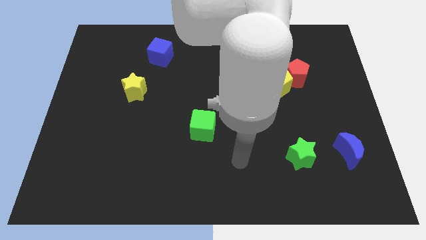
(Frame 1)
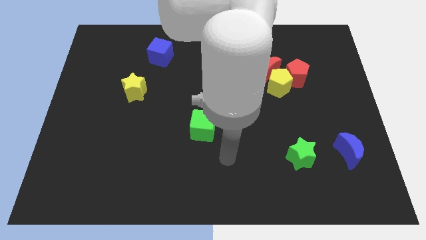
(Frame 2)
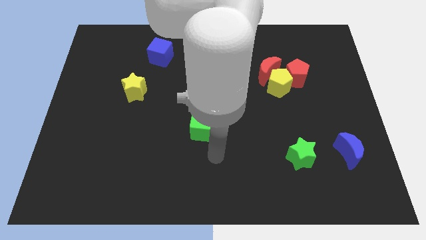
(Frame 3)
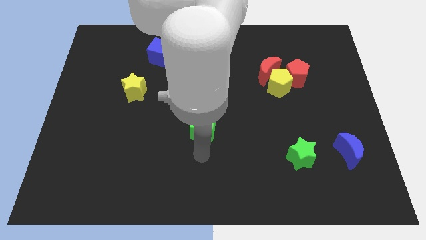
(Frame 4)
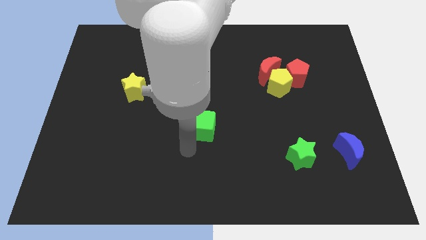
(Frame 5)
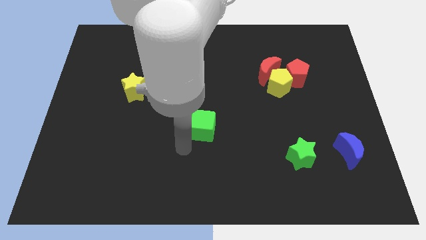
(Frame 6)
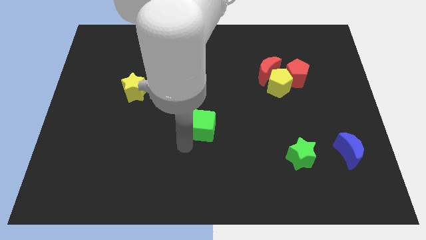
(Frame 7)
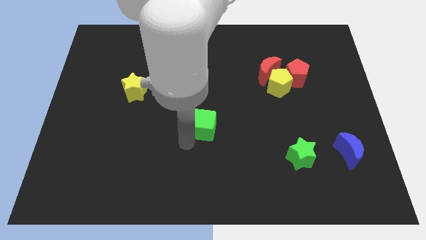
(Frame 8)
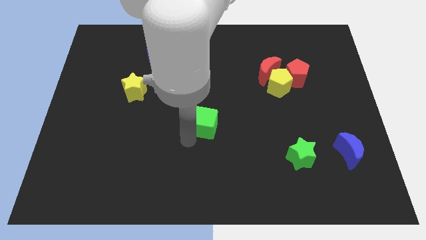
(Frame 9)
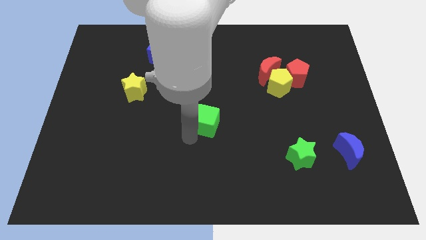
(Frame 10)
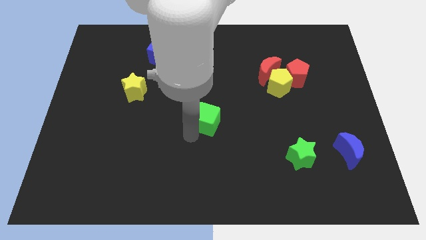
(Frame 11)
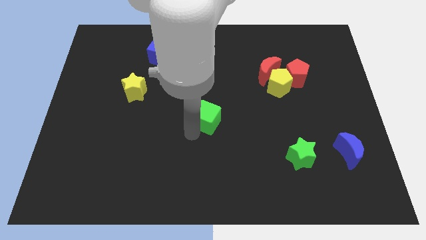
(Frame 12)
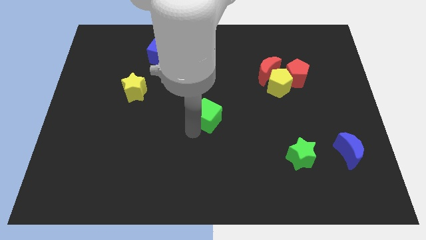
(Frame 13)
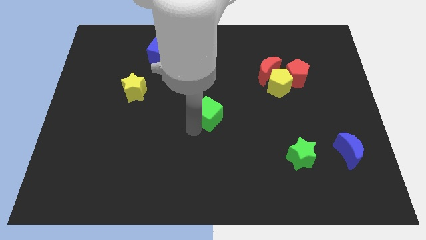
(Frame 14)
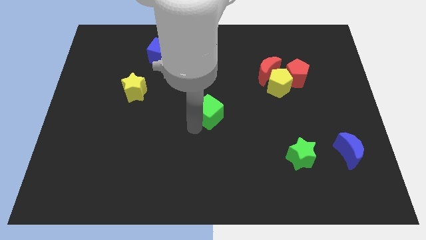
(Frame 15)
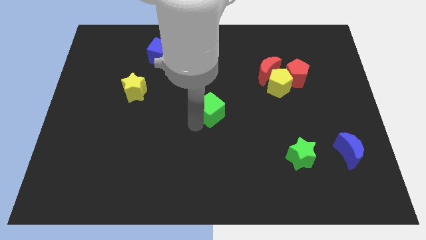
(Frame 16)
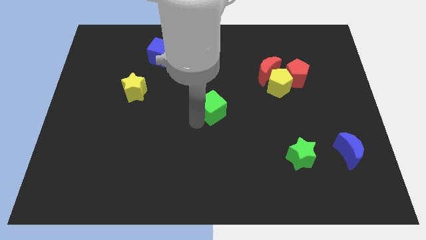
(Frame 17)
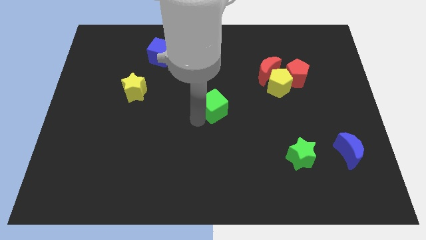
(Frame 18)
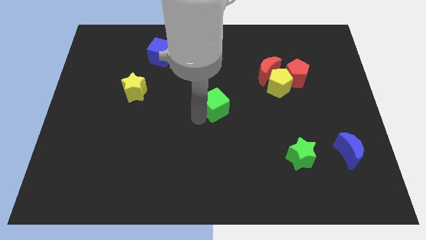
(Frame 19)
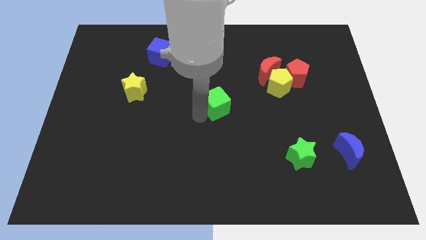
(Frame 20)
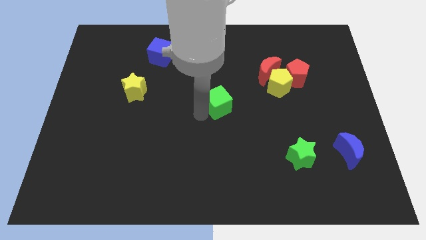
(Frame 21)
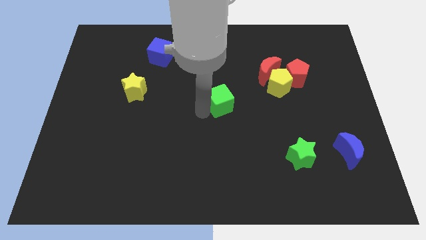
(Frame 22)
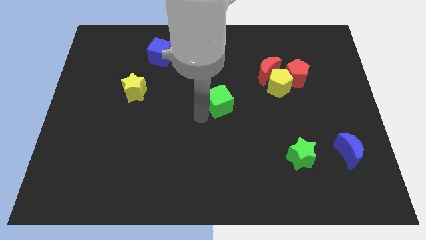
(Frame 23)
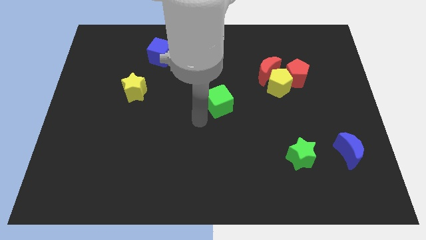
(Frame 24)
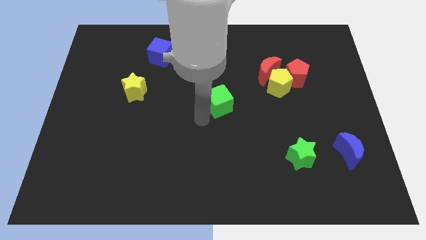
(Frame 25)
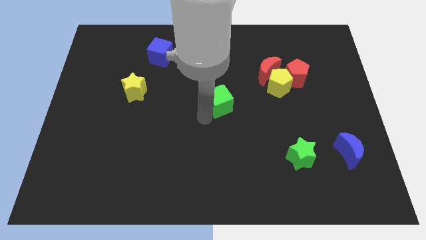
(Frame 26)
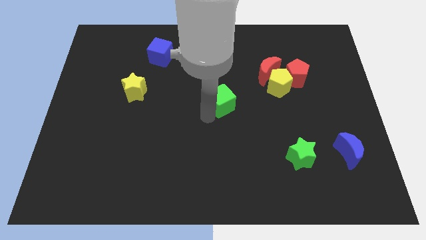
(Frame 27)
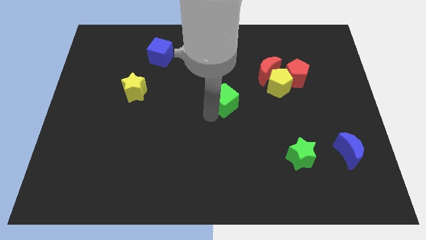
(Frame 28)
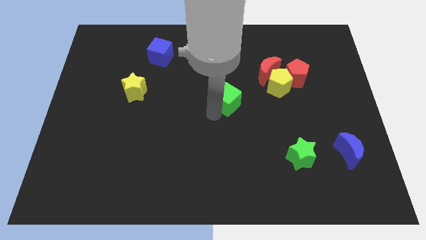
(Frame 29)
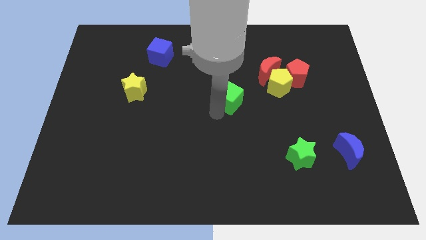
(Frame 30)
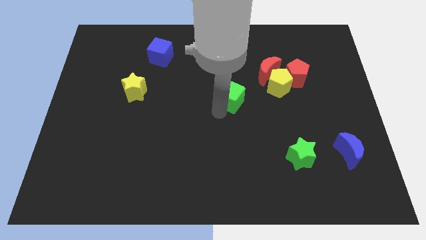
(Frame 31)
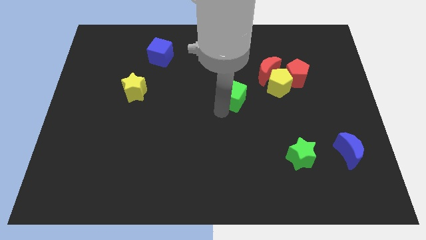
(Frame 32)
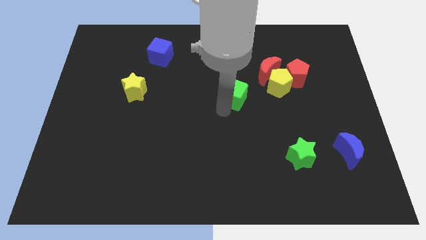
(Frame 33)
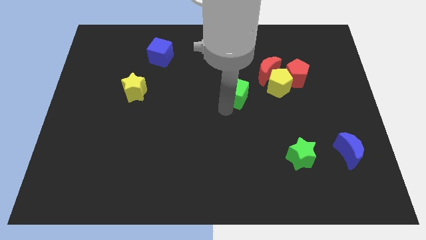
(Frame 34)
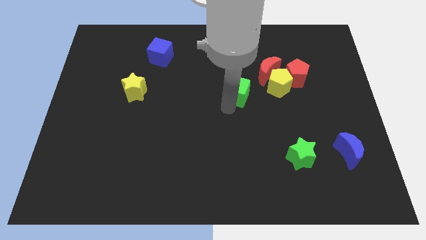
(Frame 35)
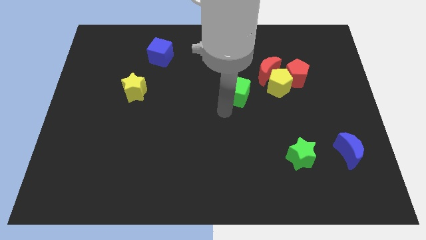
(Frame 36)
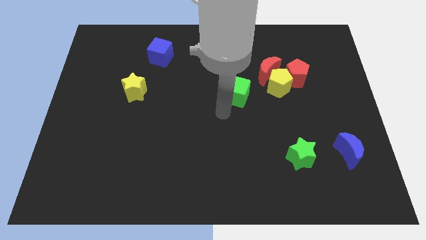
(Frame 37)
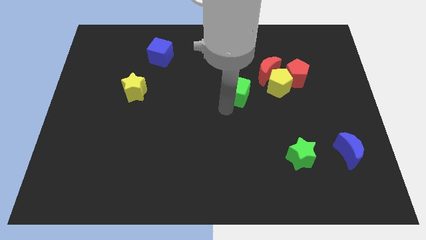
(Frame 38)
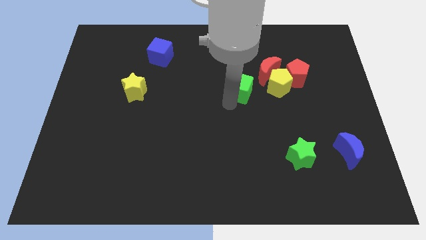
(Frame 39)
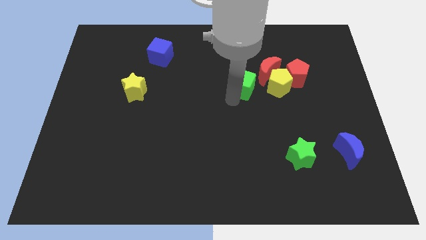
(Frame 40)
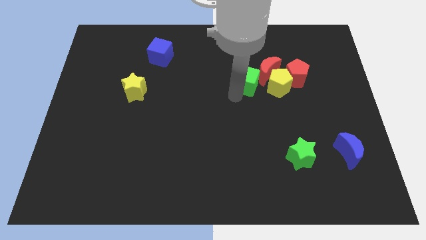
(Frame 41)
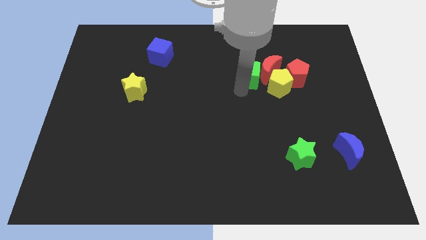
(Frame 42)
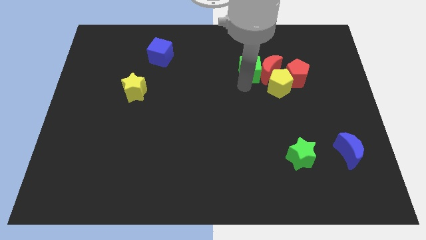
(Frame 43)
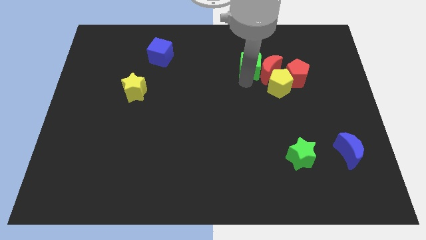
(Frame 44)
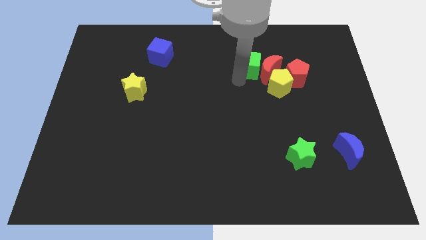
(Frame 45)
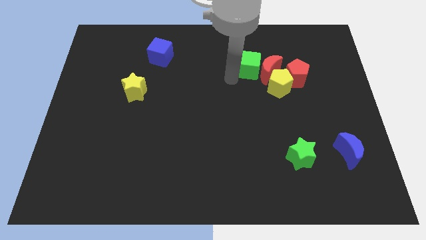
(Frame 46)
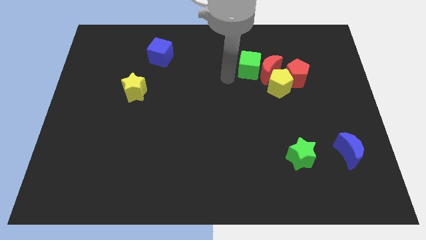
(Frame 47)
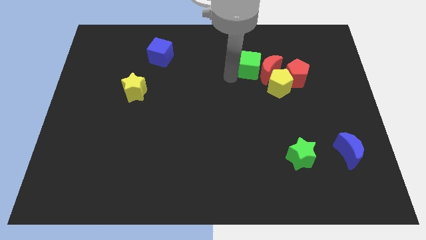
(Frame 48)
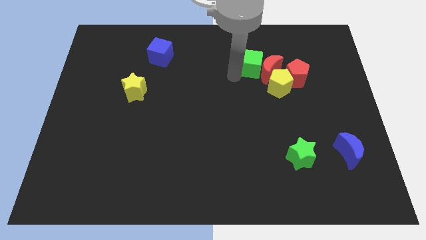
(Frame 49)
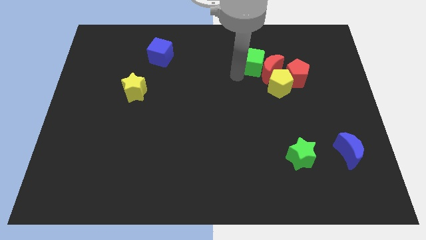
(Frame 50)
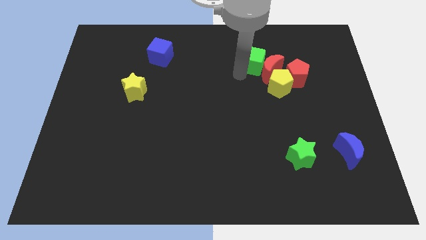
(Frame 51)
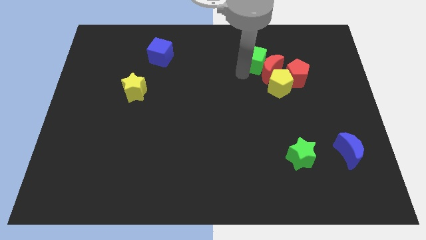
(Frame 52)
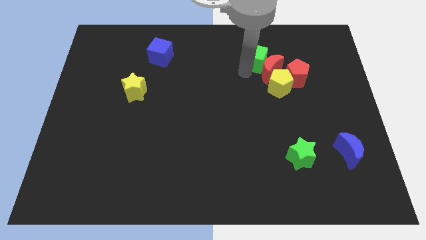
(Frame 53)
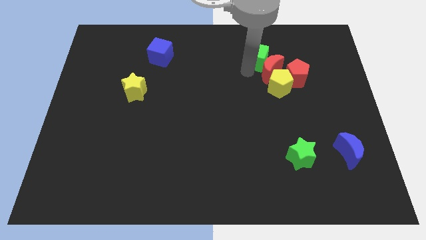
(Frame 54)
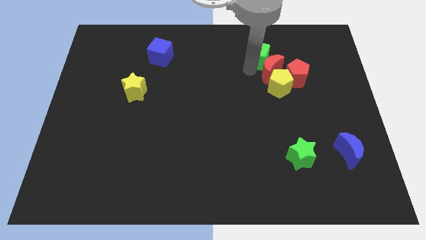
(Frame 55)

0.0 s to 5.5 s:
slide the green cube to the top side of the yellow pentagon
